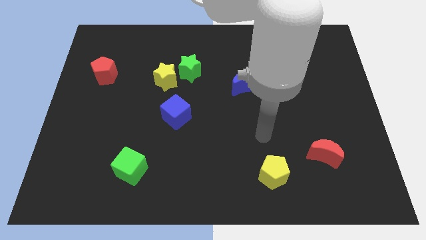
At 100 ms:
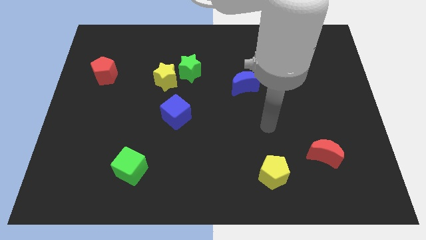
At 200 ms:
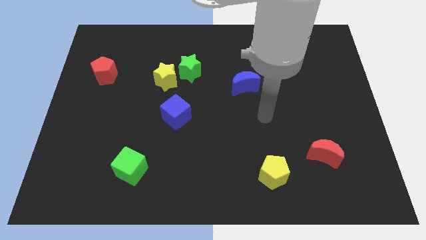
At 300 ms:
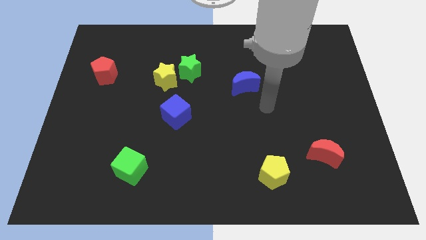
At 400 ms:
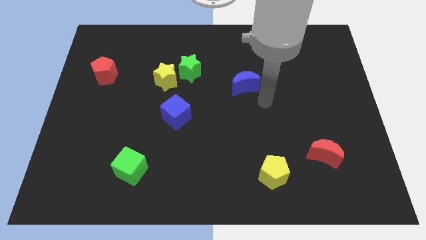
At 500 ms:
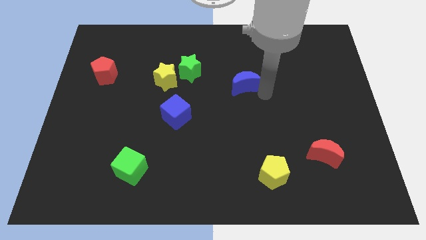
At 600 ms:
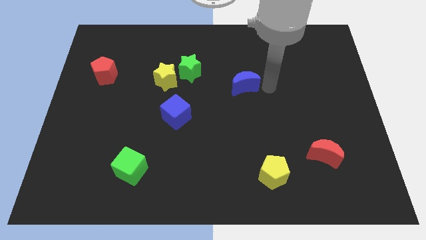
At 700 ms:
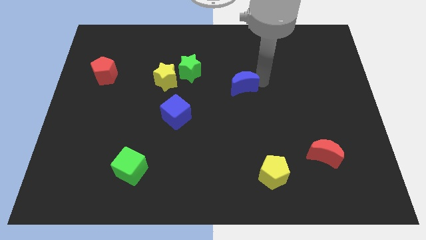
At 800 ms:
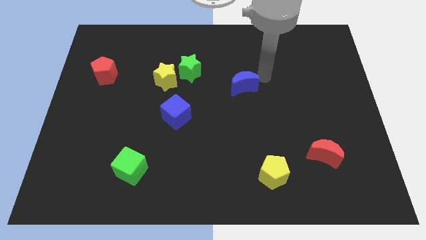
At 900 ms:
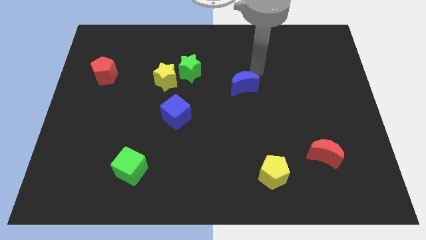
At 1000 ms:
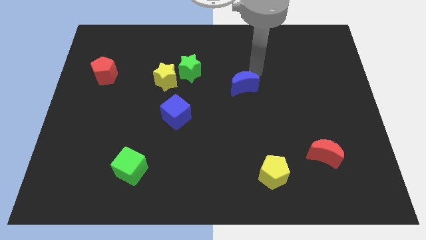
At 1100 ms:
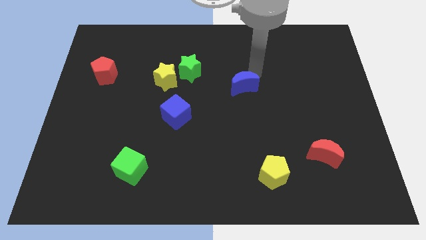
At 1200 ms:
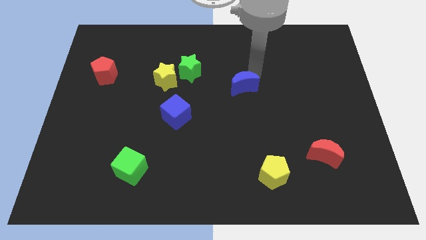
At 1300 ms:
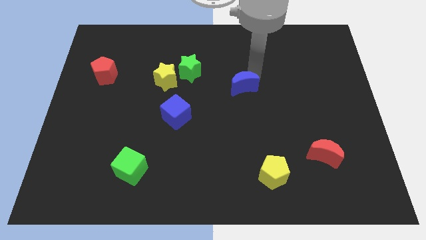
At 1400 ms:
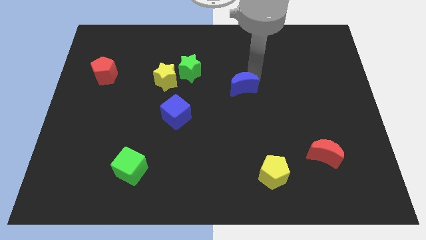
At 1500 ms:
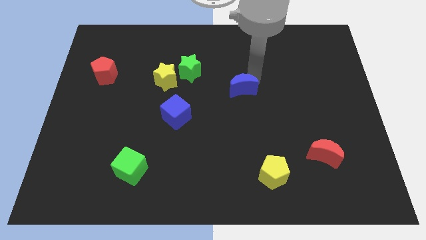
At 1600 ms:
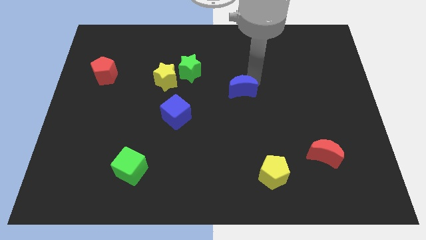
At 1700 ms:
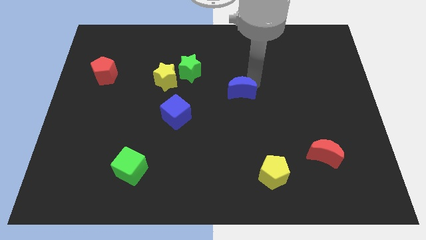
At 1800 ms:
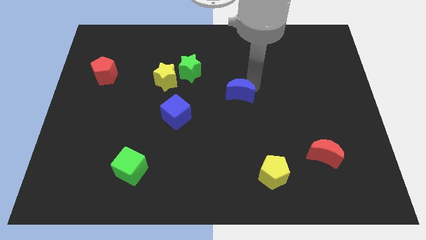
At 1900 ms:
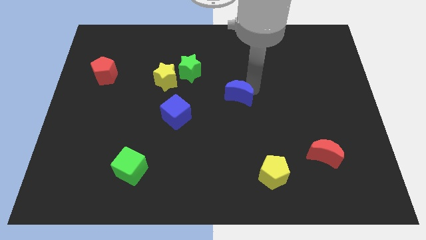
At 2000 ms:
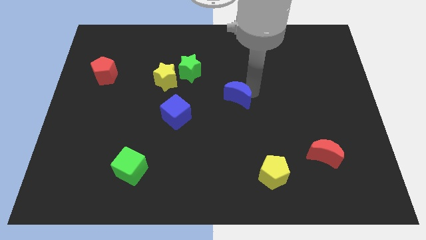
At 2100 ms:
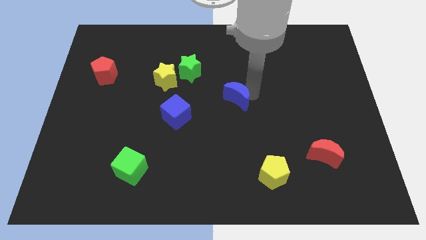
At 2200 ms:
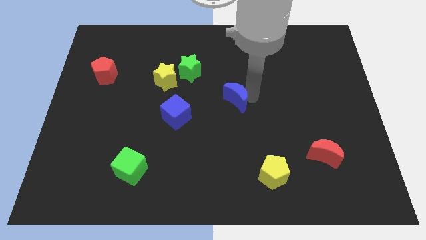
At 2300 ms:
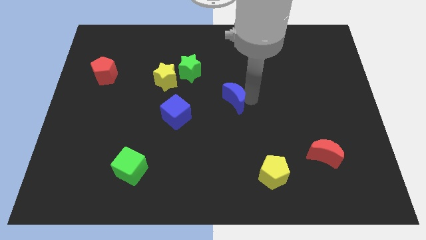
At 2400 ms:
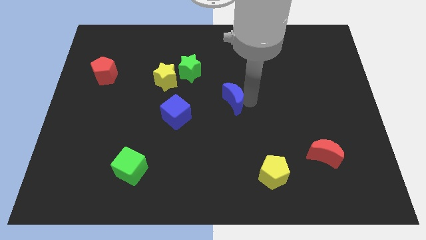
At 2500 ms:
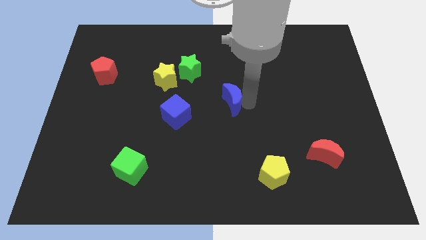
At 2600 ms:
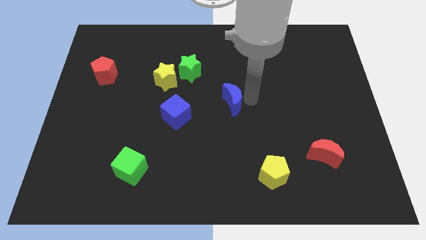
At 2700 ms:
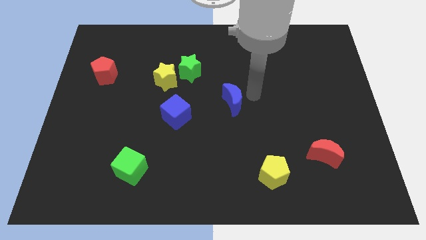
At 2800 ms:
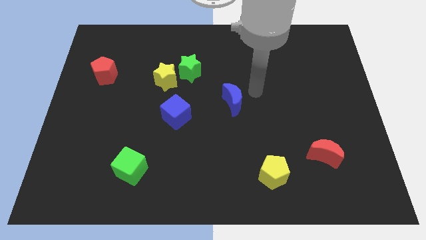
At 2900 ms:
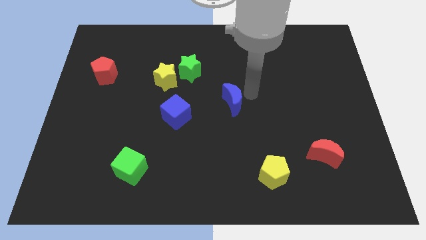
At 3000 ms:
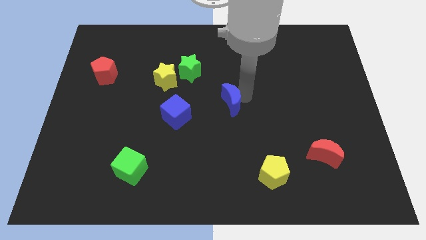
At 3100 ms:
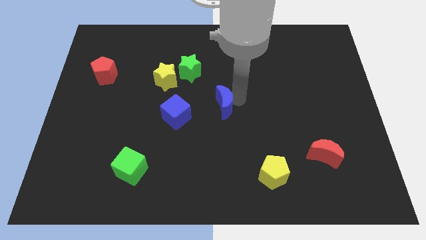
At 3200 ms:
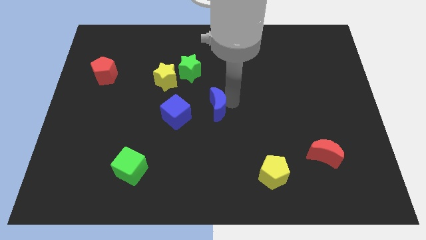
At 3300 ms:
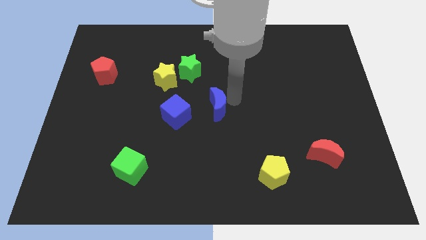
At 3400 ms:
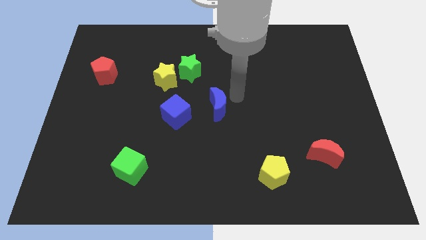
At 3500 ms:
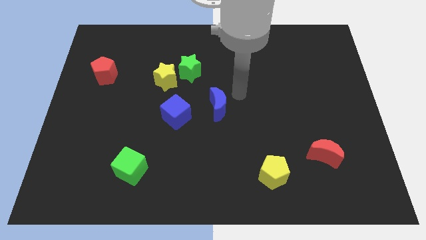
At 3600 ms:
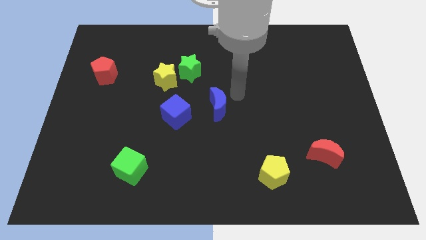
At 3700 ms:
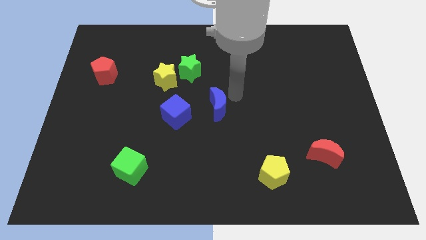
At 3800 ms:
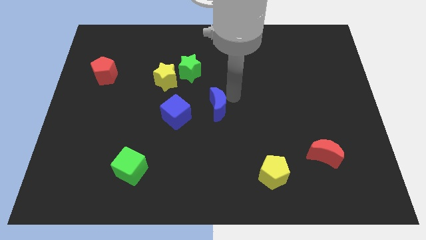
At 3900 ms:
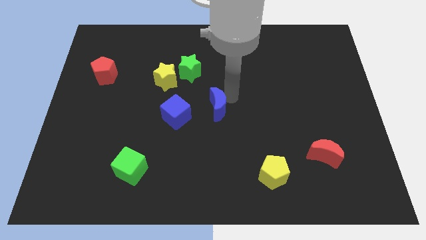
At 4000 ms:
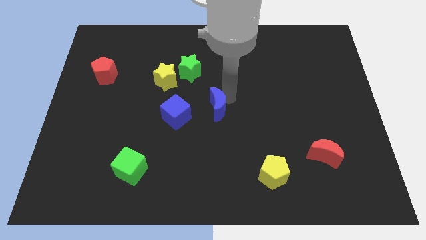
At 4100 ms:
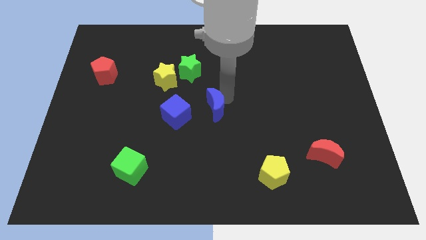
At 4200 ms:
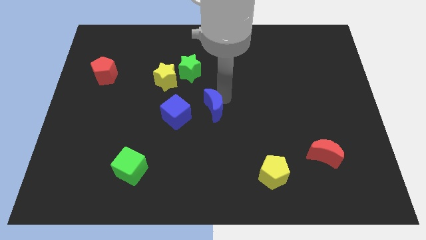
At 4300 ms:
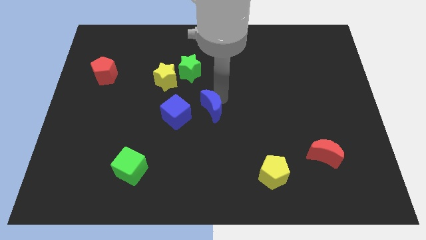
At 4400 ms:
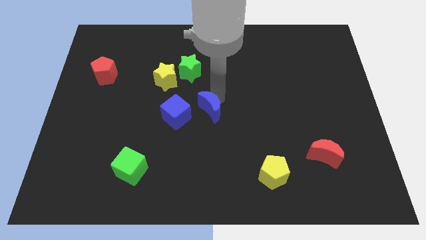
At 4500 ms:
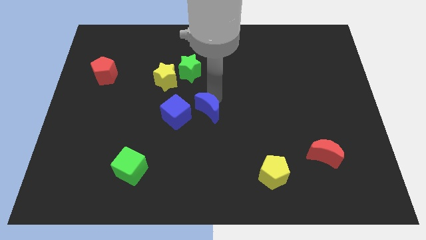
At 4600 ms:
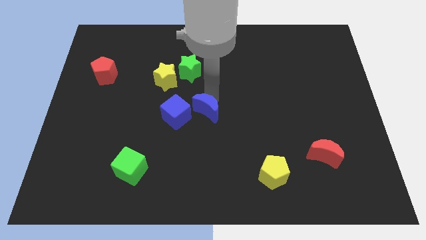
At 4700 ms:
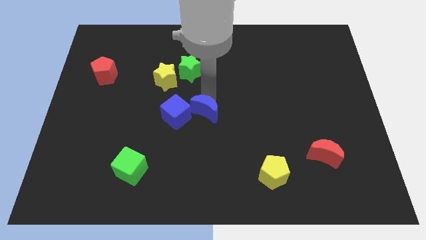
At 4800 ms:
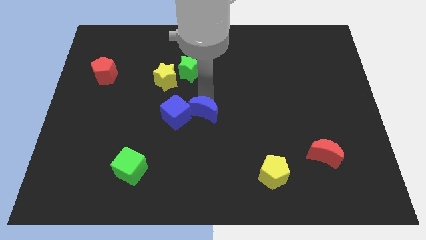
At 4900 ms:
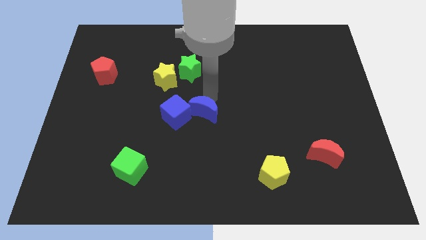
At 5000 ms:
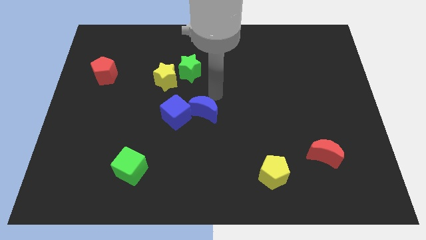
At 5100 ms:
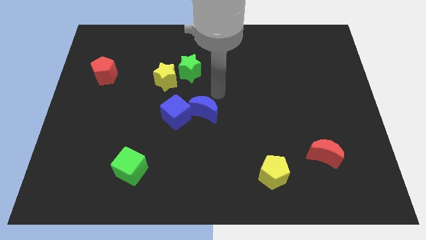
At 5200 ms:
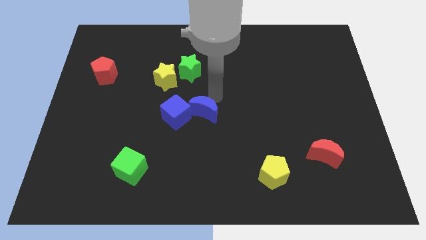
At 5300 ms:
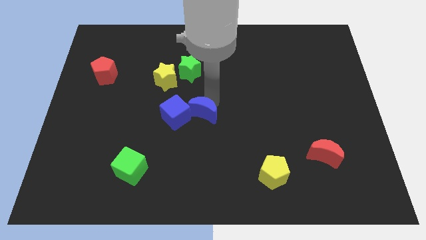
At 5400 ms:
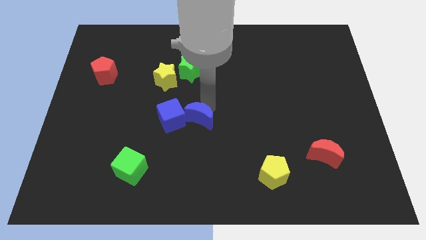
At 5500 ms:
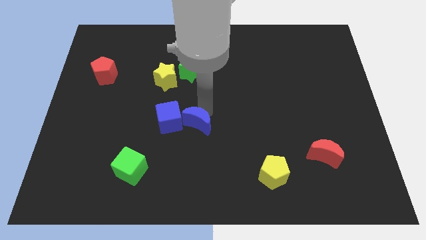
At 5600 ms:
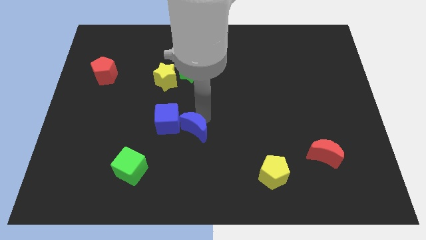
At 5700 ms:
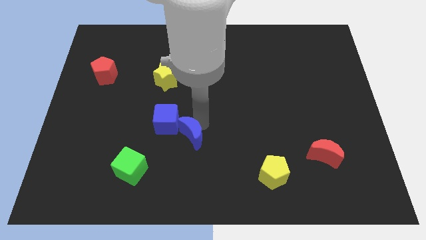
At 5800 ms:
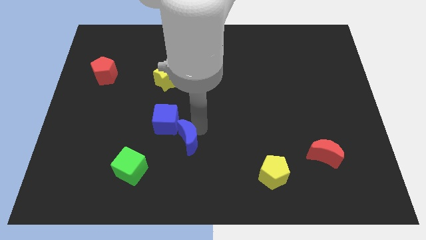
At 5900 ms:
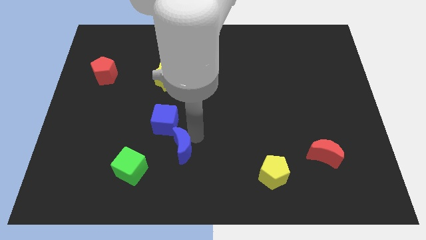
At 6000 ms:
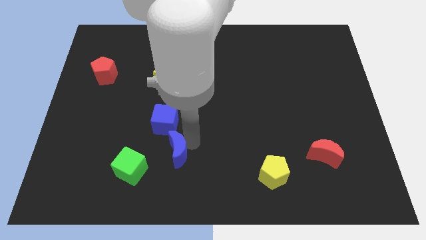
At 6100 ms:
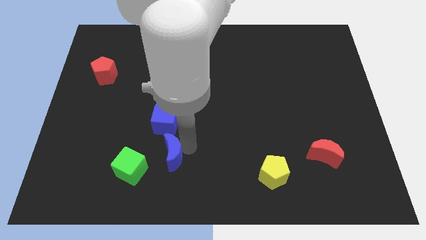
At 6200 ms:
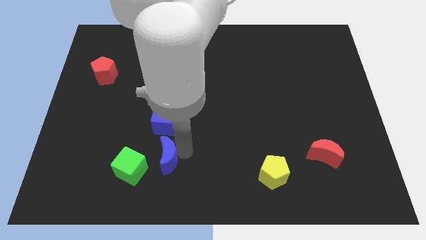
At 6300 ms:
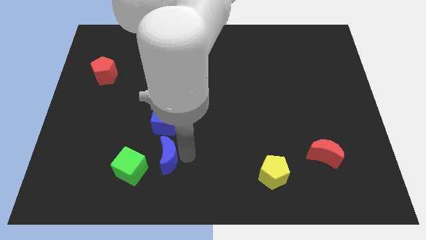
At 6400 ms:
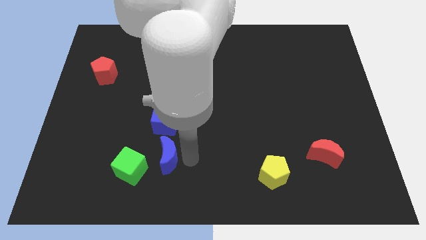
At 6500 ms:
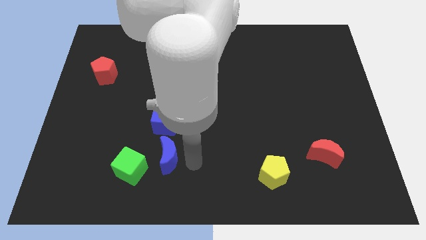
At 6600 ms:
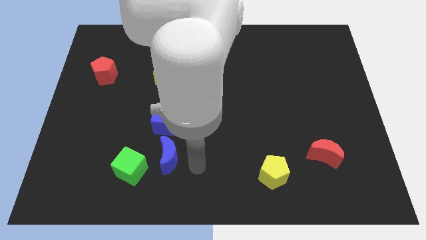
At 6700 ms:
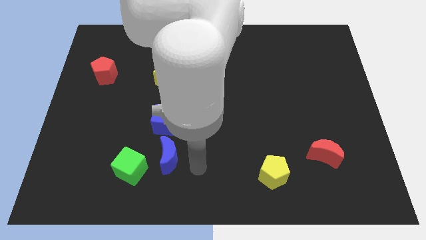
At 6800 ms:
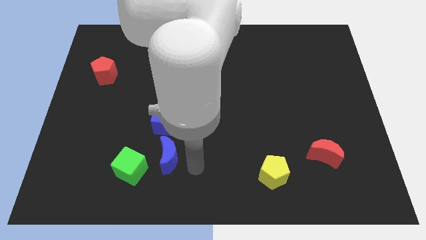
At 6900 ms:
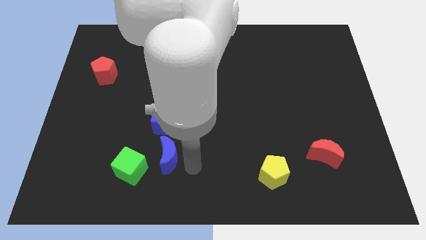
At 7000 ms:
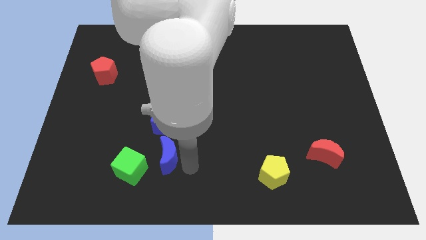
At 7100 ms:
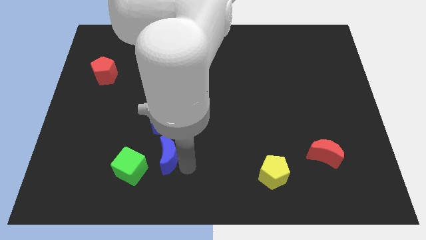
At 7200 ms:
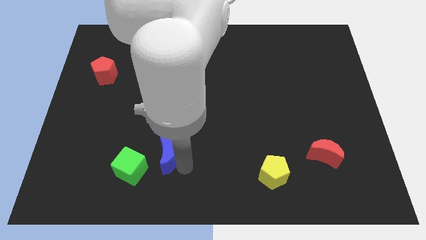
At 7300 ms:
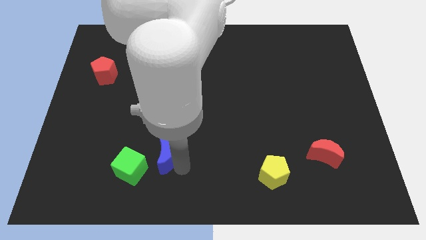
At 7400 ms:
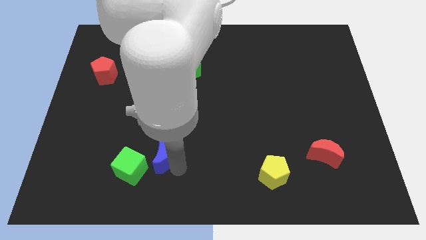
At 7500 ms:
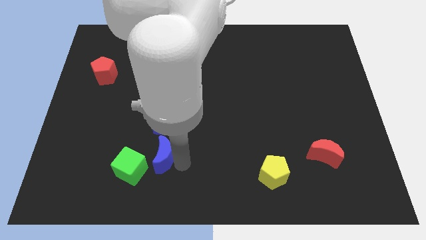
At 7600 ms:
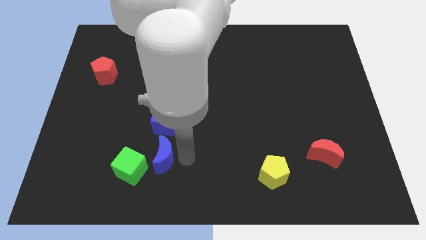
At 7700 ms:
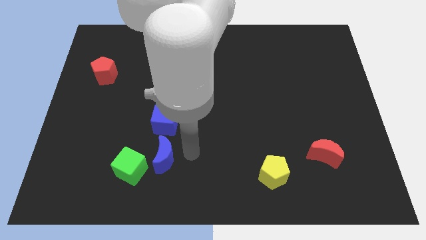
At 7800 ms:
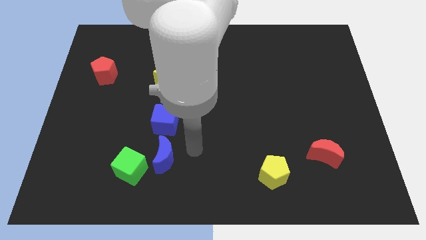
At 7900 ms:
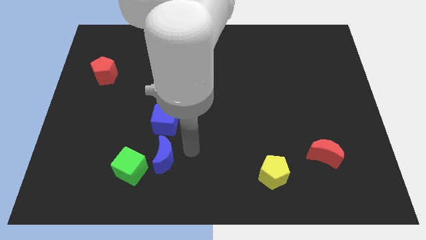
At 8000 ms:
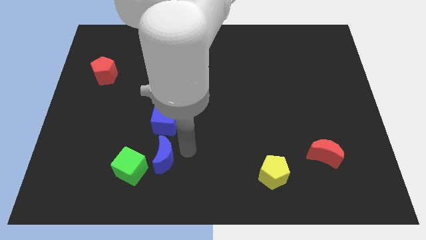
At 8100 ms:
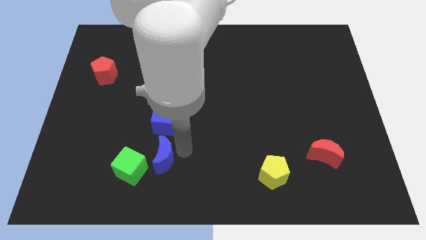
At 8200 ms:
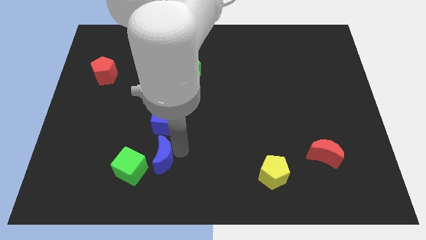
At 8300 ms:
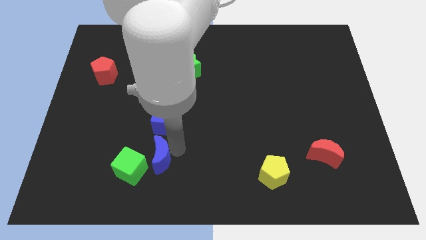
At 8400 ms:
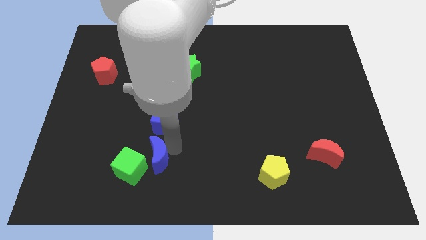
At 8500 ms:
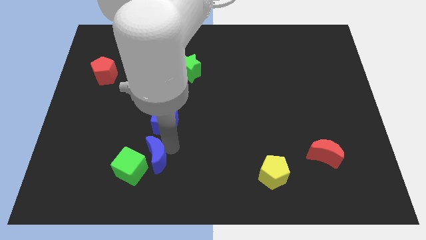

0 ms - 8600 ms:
push the blue moon to the green cube
